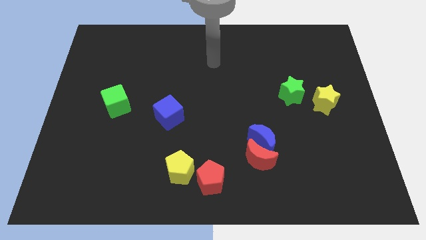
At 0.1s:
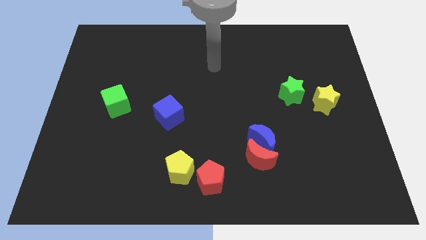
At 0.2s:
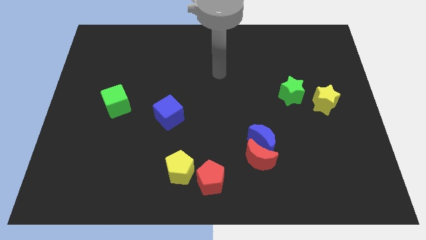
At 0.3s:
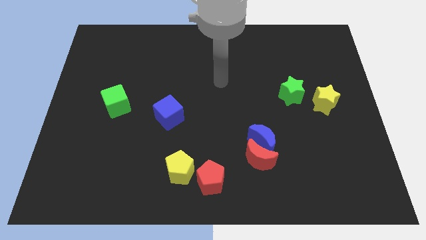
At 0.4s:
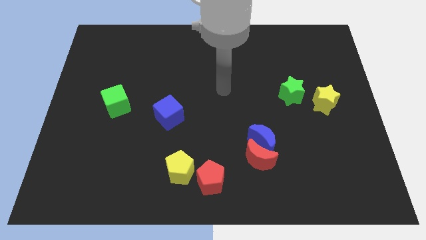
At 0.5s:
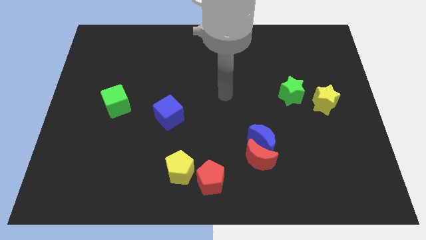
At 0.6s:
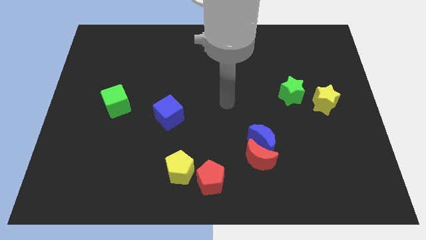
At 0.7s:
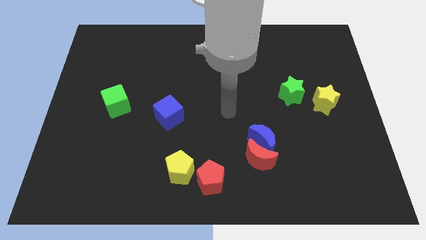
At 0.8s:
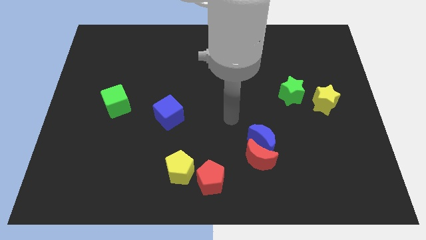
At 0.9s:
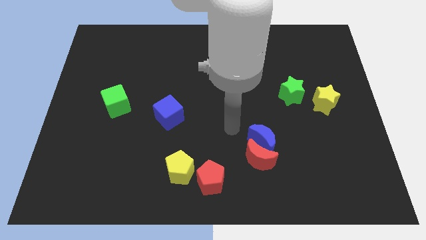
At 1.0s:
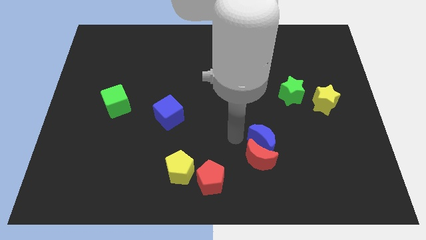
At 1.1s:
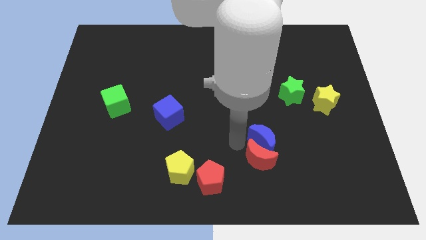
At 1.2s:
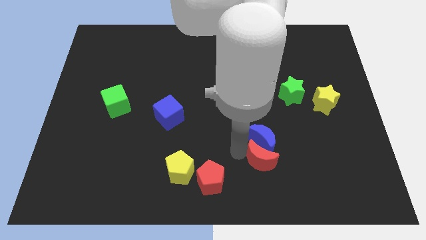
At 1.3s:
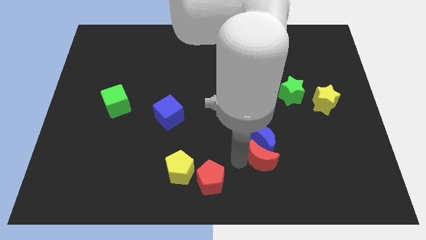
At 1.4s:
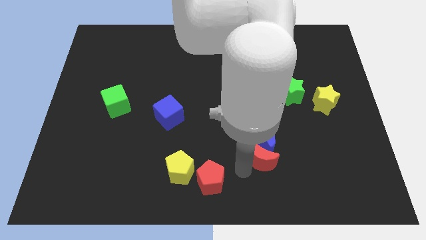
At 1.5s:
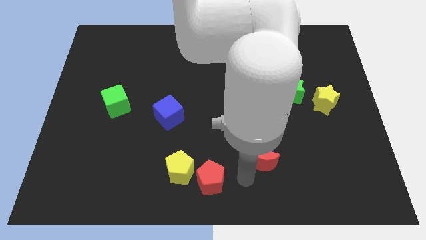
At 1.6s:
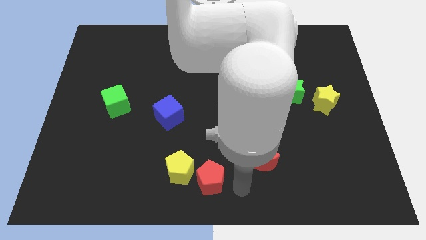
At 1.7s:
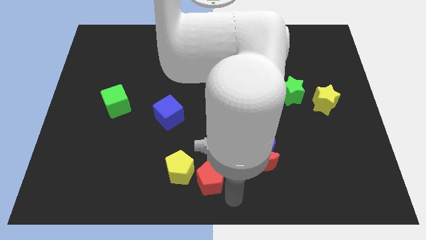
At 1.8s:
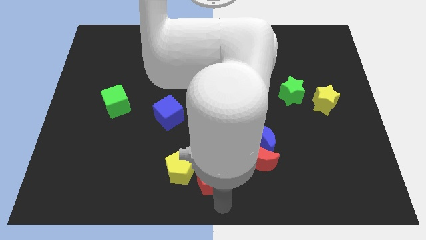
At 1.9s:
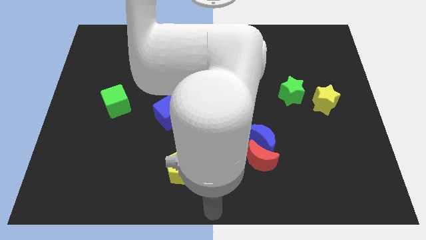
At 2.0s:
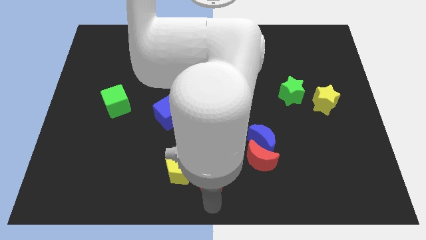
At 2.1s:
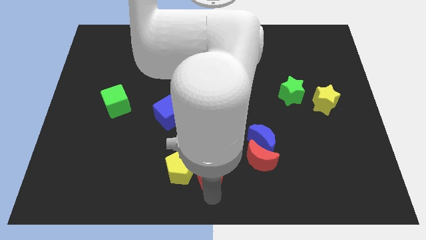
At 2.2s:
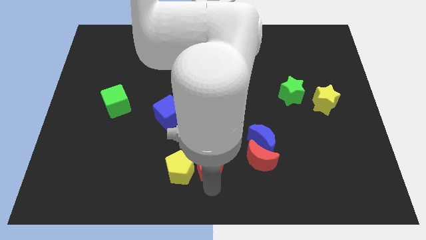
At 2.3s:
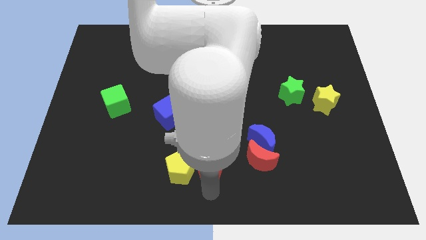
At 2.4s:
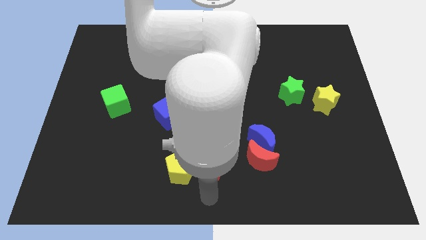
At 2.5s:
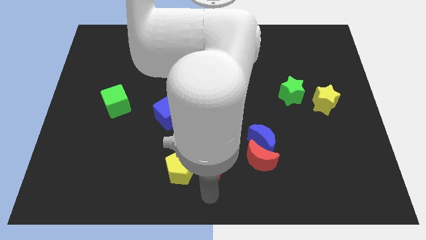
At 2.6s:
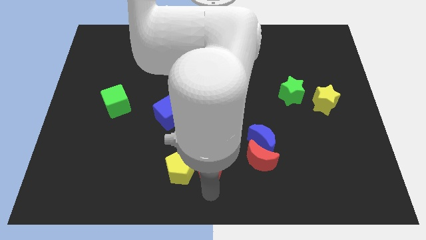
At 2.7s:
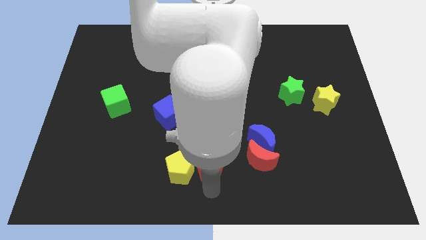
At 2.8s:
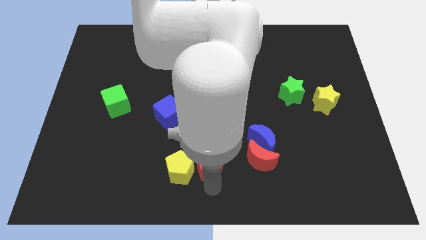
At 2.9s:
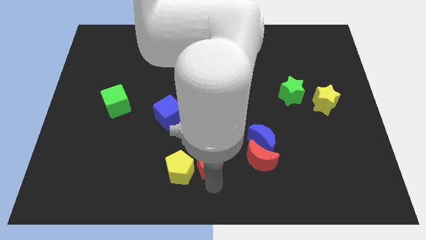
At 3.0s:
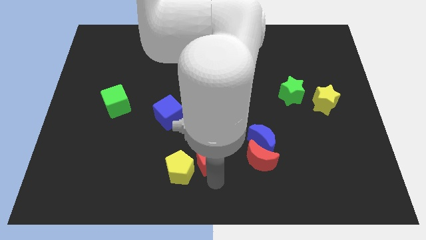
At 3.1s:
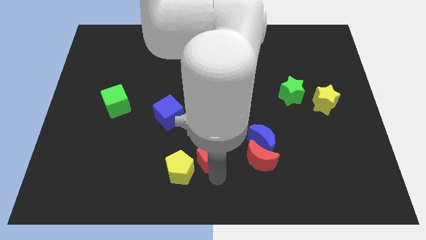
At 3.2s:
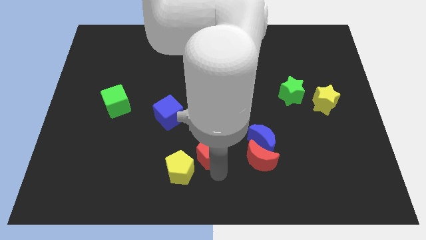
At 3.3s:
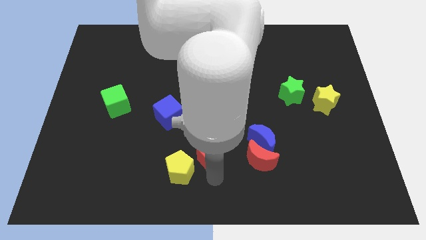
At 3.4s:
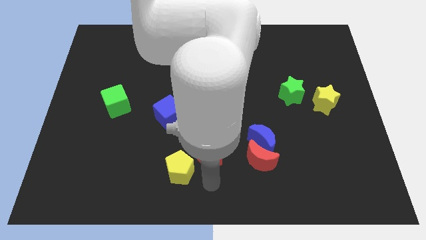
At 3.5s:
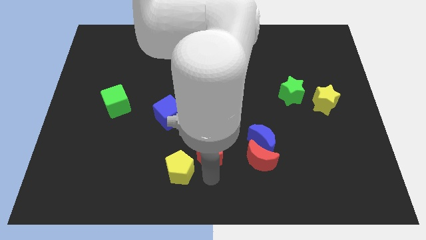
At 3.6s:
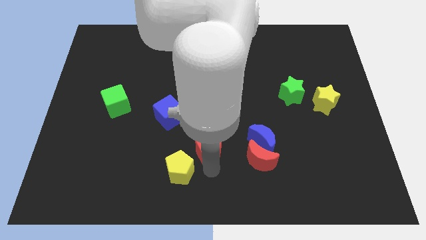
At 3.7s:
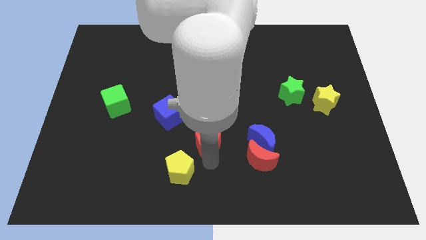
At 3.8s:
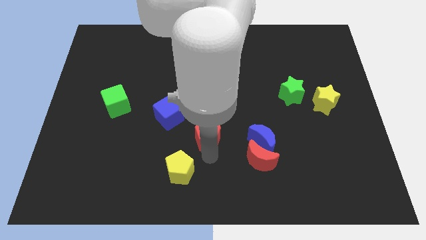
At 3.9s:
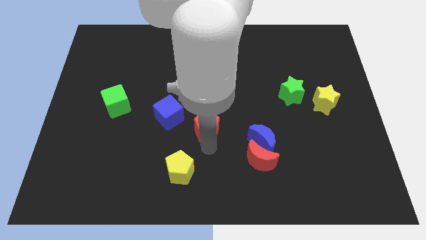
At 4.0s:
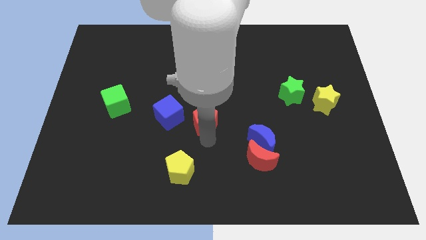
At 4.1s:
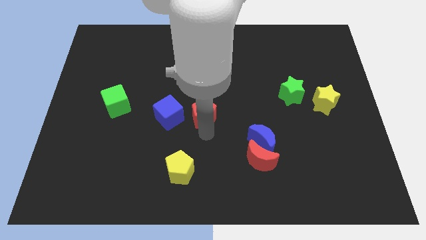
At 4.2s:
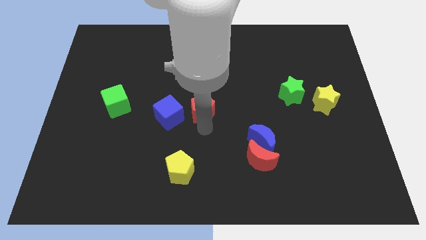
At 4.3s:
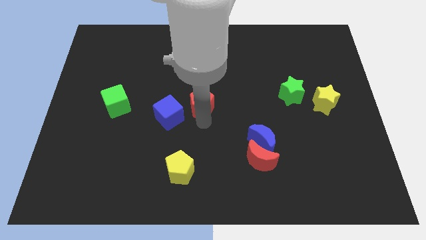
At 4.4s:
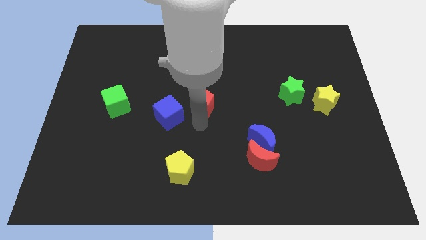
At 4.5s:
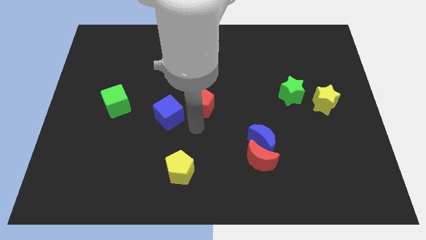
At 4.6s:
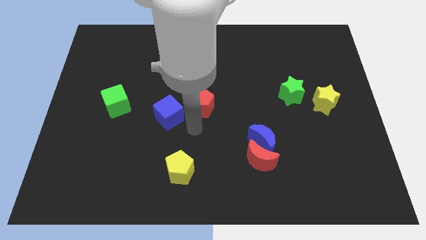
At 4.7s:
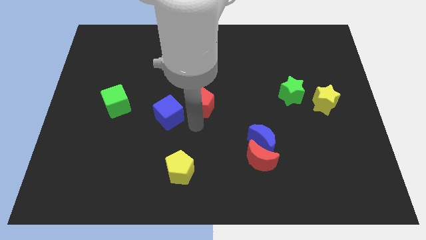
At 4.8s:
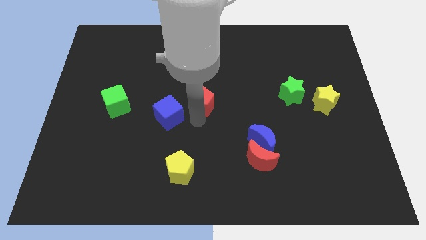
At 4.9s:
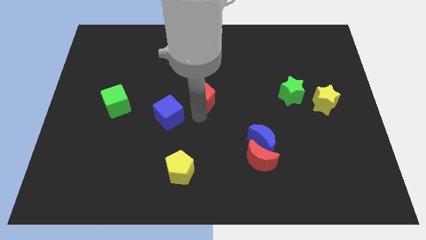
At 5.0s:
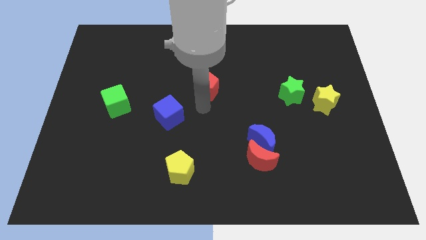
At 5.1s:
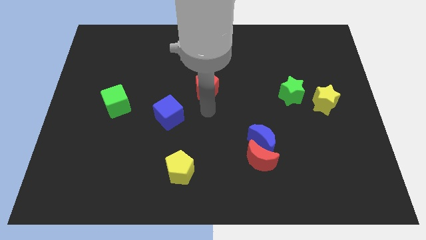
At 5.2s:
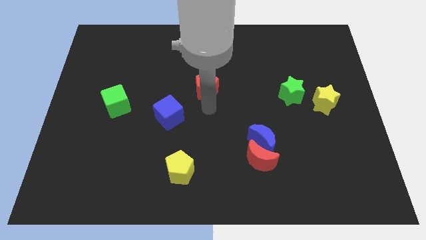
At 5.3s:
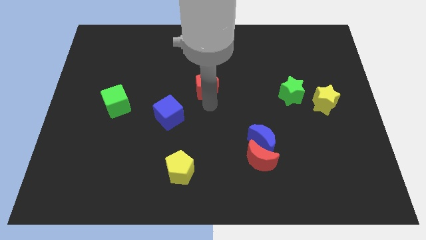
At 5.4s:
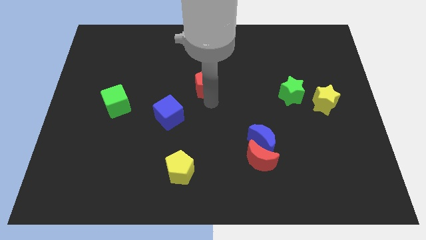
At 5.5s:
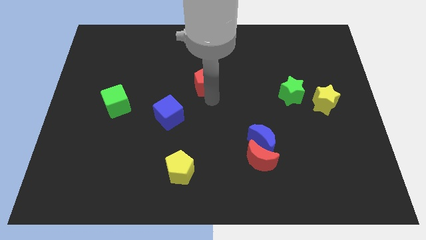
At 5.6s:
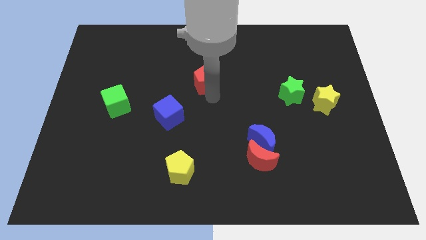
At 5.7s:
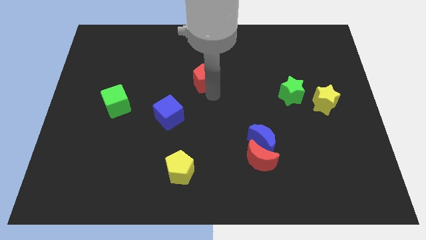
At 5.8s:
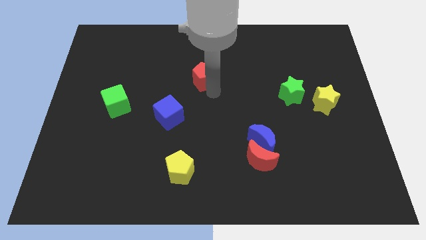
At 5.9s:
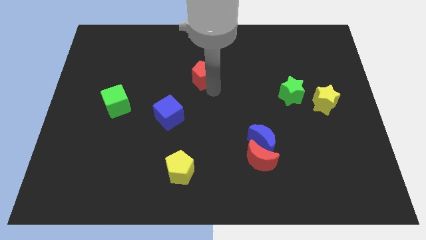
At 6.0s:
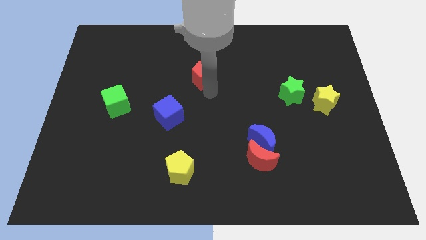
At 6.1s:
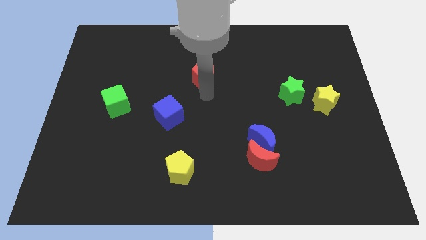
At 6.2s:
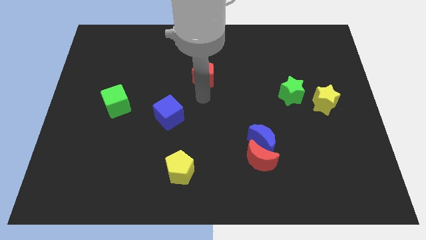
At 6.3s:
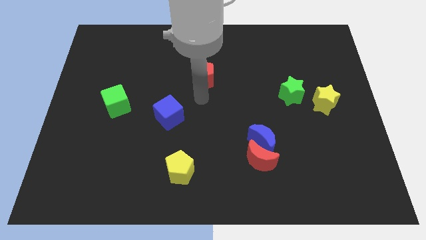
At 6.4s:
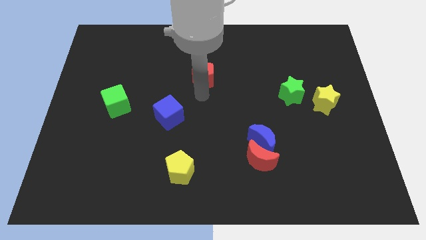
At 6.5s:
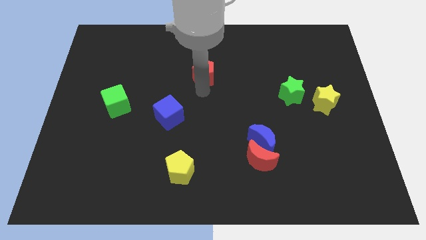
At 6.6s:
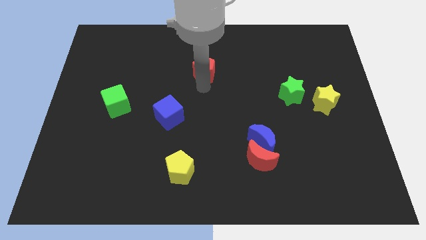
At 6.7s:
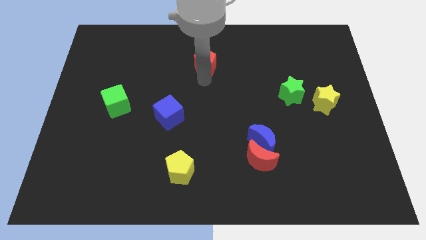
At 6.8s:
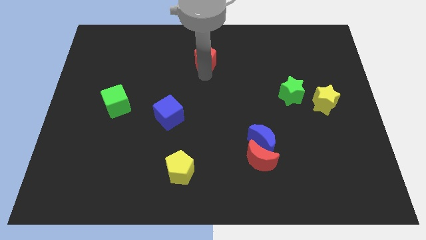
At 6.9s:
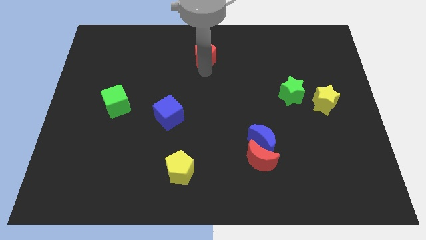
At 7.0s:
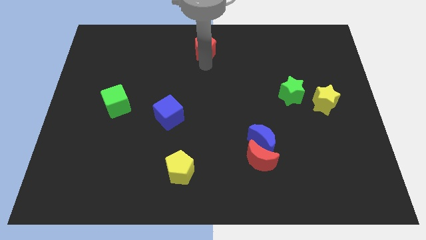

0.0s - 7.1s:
slide the red pentagon to the top side
